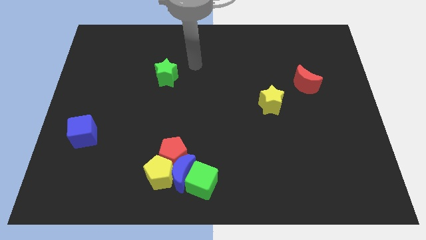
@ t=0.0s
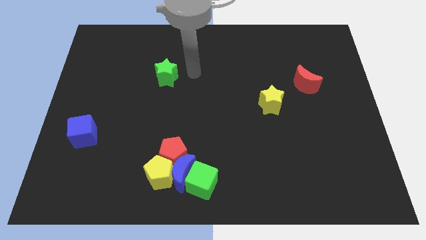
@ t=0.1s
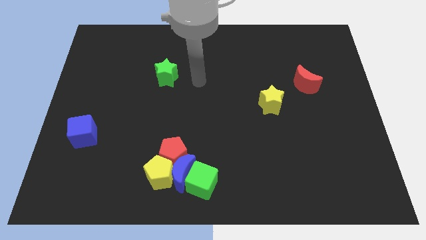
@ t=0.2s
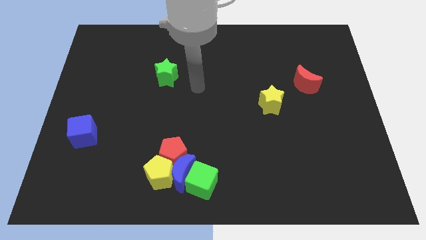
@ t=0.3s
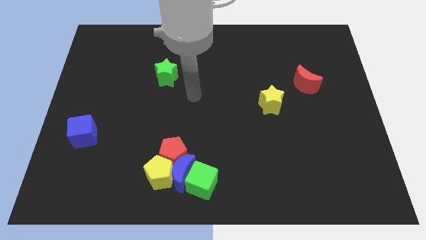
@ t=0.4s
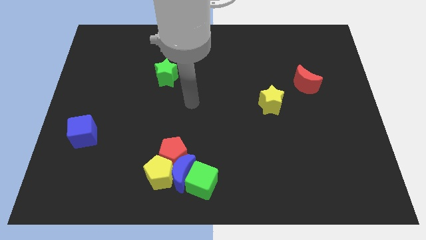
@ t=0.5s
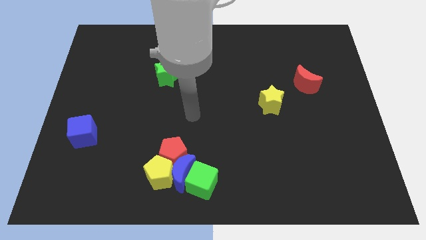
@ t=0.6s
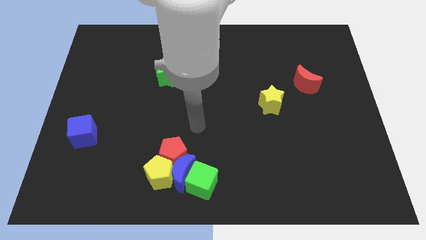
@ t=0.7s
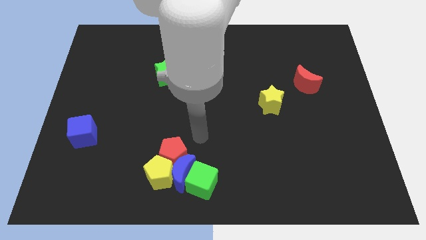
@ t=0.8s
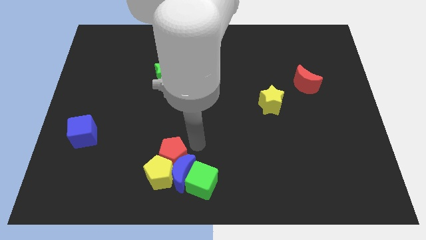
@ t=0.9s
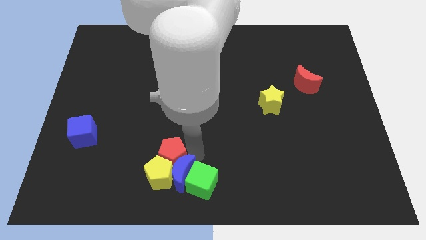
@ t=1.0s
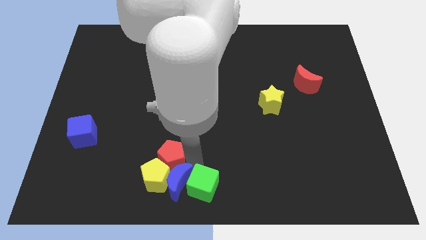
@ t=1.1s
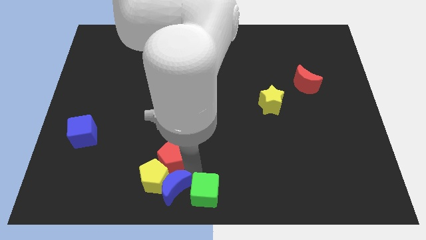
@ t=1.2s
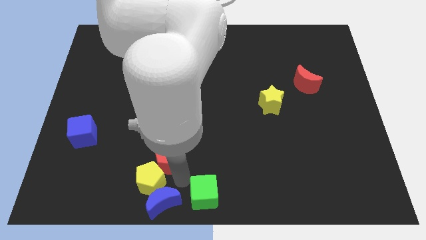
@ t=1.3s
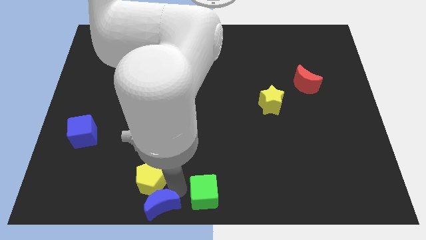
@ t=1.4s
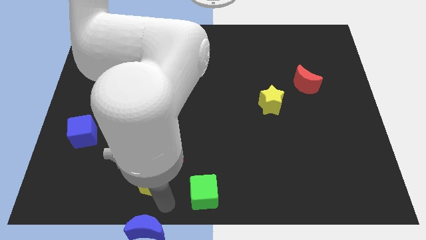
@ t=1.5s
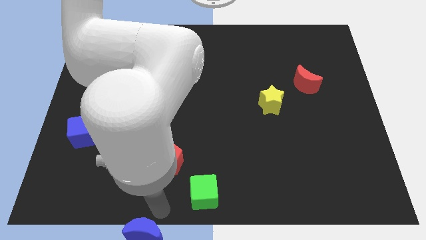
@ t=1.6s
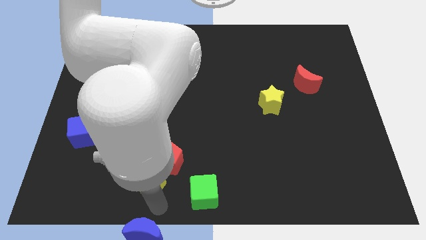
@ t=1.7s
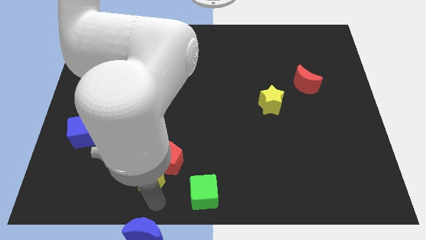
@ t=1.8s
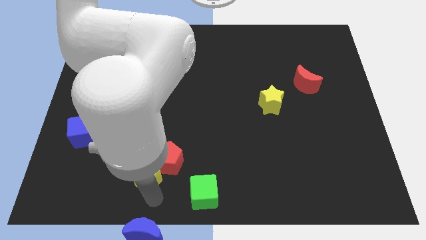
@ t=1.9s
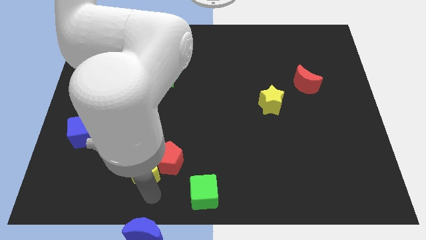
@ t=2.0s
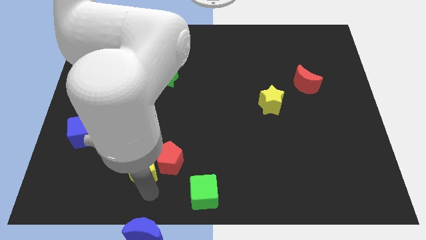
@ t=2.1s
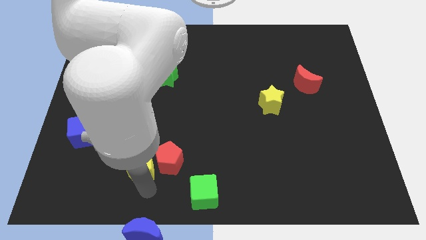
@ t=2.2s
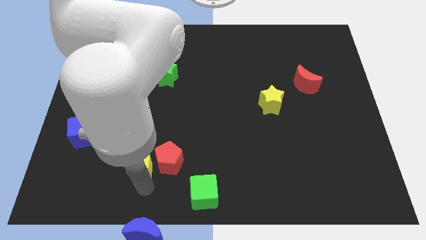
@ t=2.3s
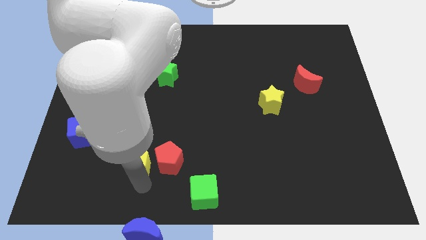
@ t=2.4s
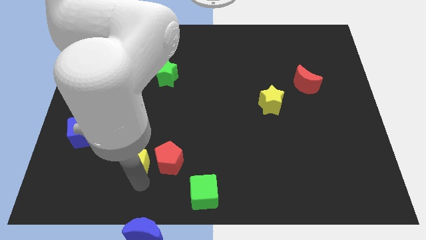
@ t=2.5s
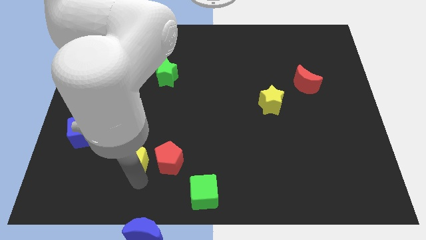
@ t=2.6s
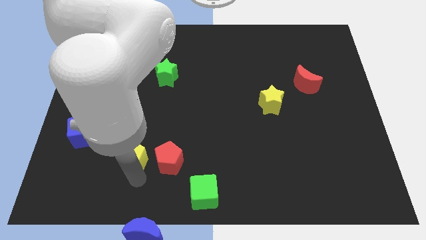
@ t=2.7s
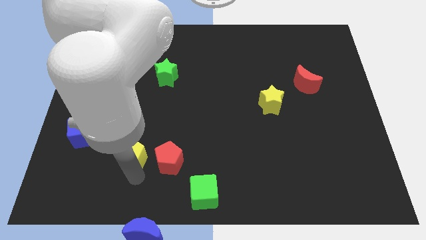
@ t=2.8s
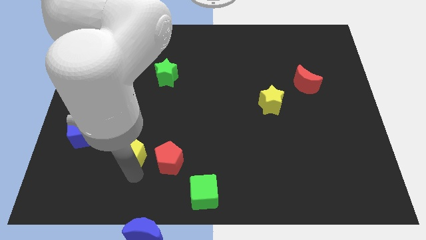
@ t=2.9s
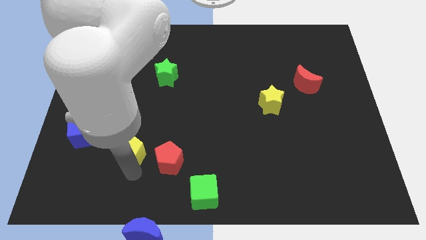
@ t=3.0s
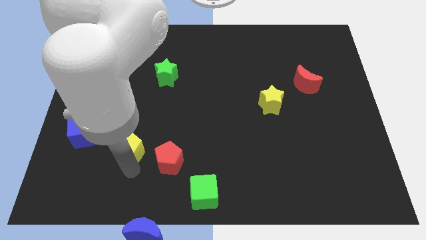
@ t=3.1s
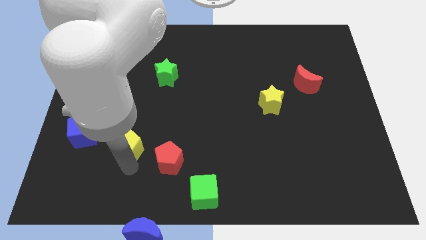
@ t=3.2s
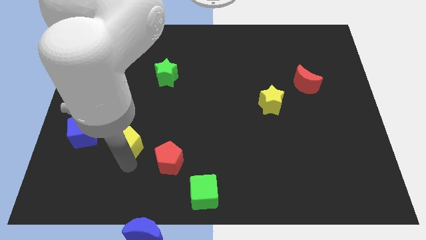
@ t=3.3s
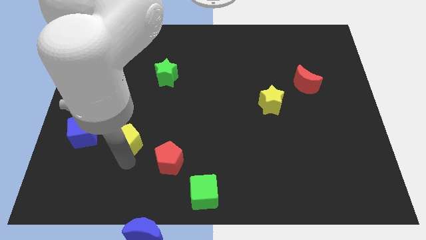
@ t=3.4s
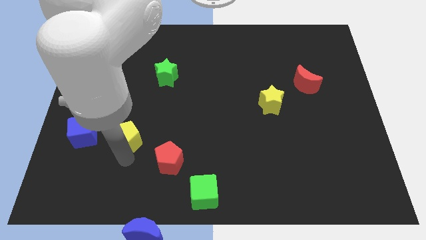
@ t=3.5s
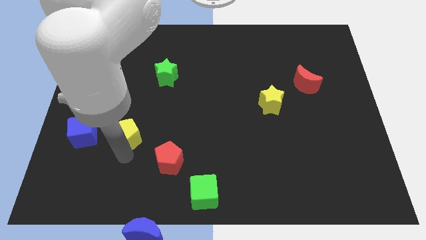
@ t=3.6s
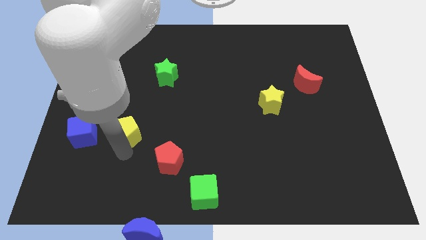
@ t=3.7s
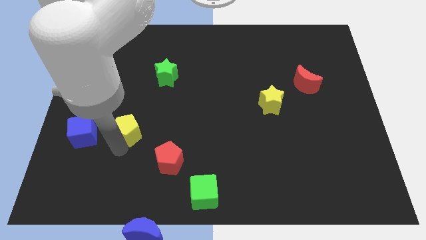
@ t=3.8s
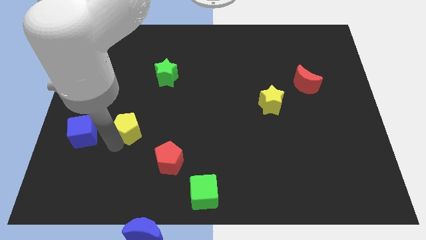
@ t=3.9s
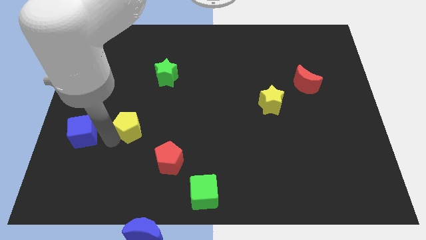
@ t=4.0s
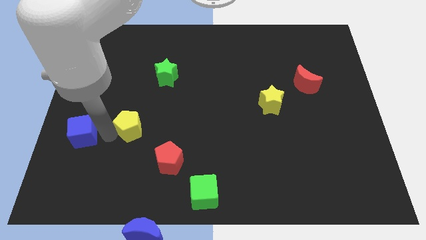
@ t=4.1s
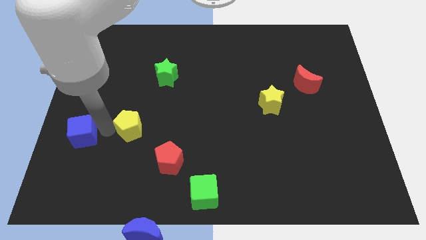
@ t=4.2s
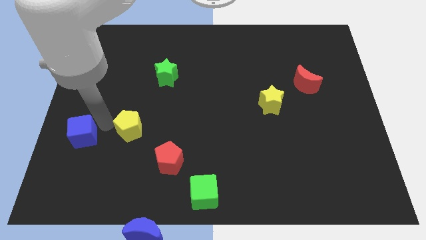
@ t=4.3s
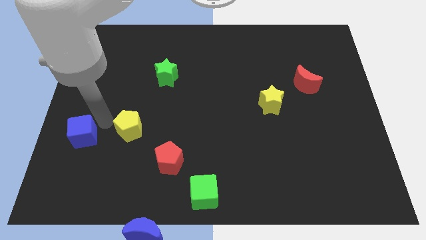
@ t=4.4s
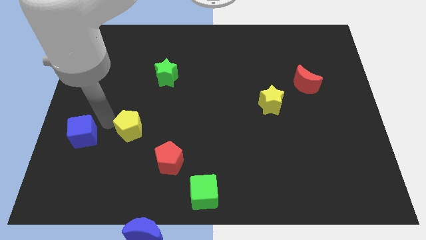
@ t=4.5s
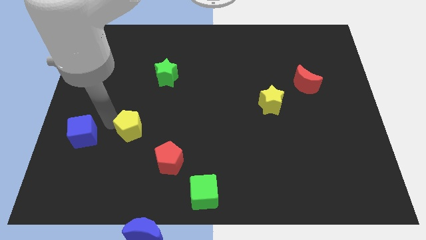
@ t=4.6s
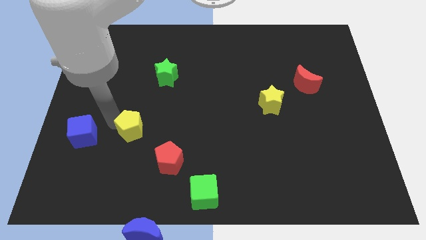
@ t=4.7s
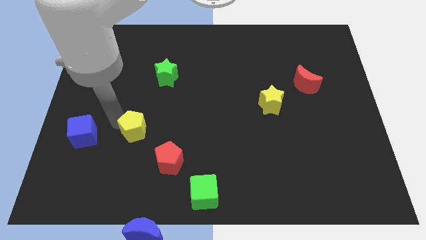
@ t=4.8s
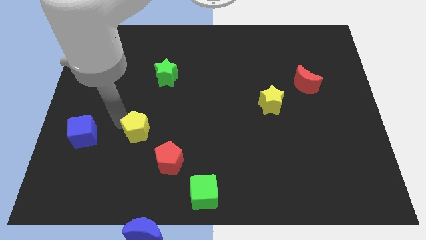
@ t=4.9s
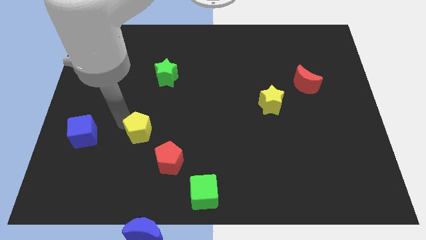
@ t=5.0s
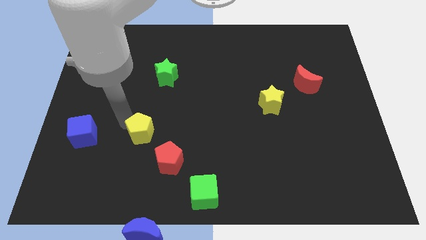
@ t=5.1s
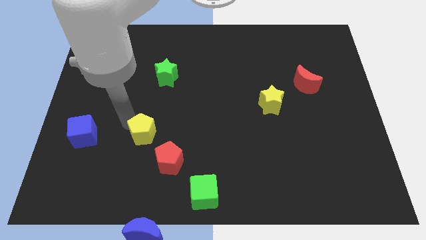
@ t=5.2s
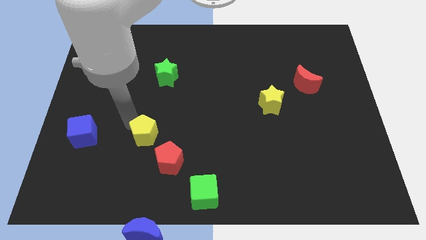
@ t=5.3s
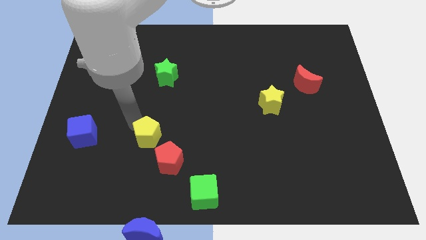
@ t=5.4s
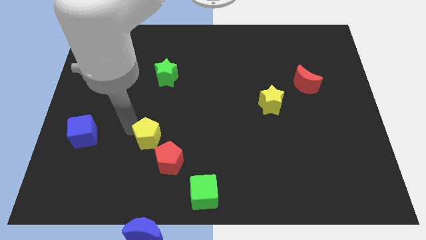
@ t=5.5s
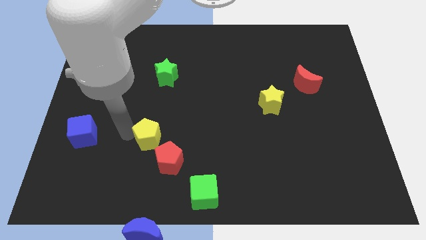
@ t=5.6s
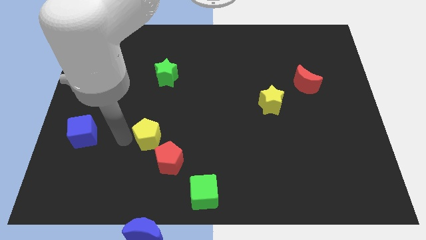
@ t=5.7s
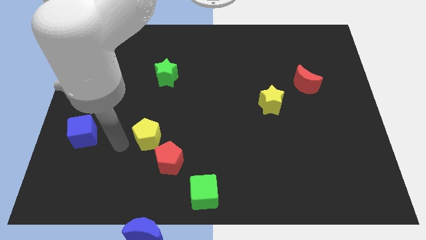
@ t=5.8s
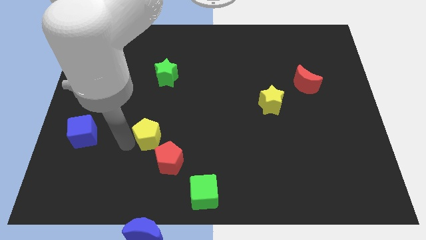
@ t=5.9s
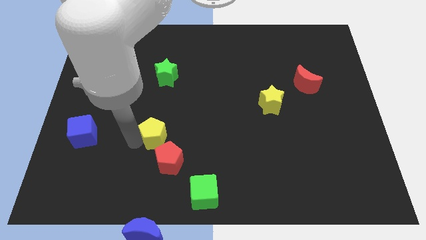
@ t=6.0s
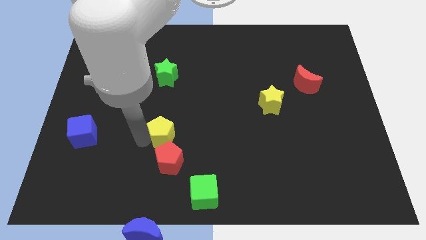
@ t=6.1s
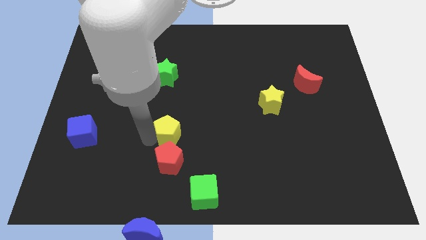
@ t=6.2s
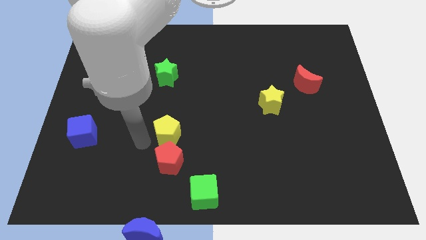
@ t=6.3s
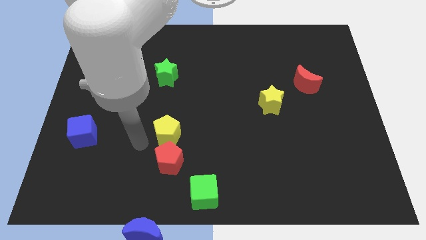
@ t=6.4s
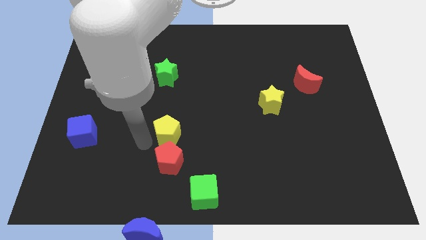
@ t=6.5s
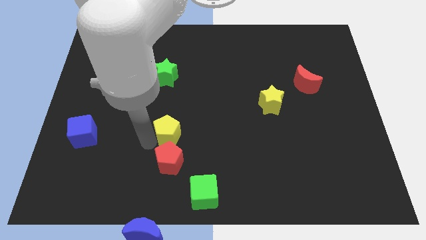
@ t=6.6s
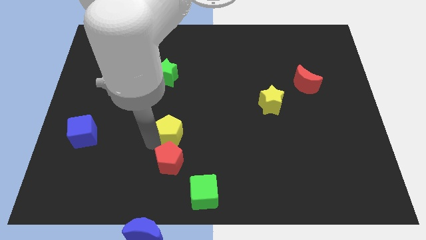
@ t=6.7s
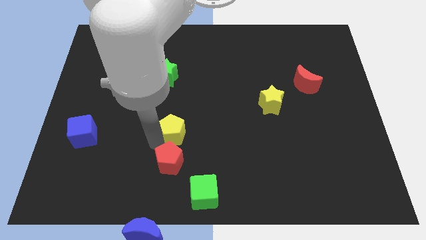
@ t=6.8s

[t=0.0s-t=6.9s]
push the yellow pentagon up and right diagonally a little bit

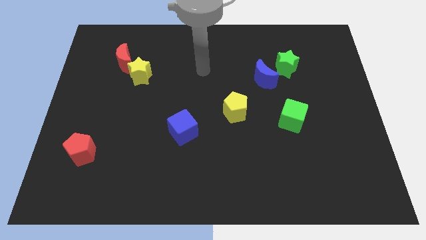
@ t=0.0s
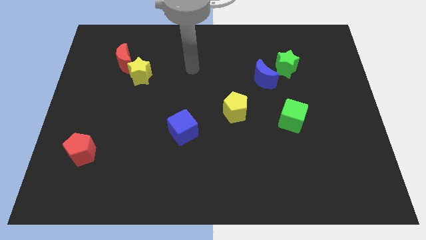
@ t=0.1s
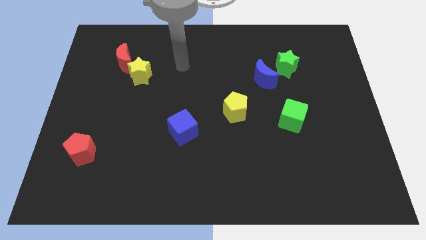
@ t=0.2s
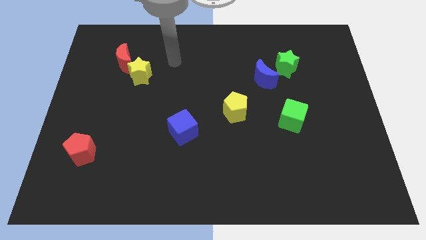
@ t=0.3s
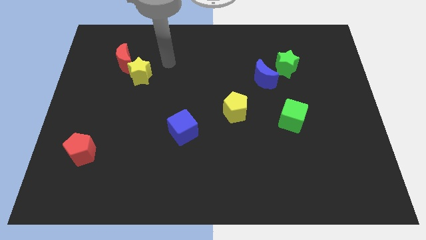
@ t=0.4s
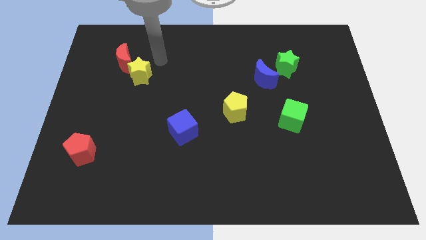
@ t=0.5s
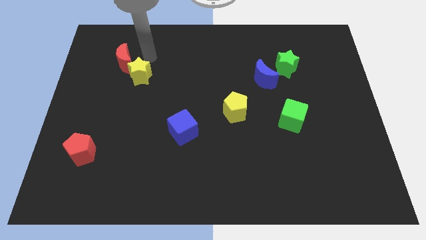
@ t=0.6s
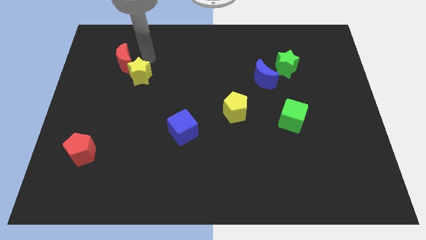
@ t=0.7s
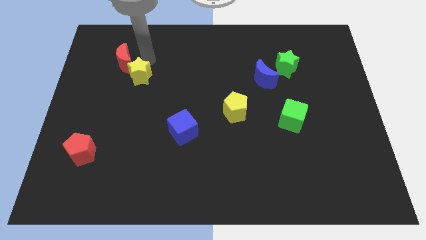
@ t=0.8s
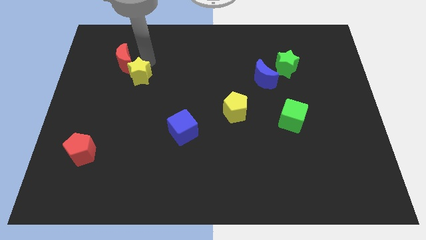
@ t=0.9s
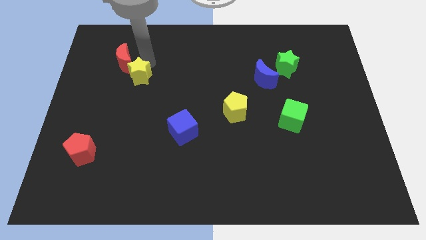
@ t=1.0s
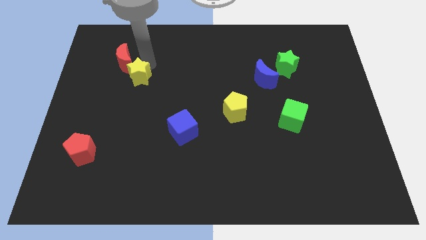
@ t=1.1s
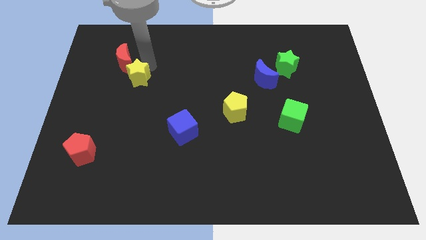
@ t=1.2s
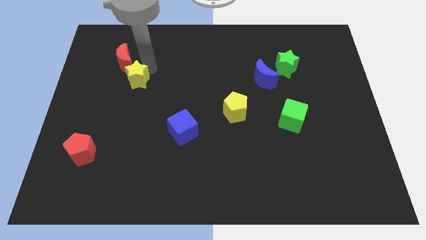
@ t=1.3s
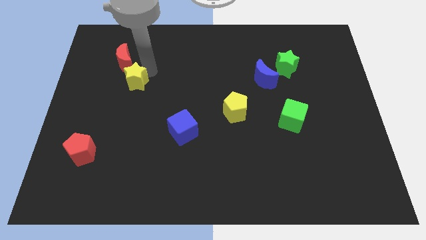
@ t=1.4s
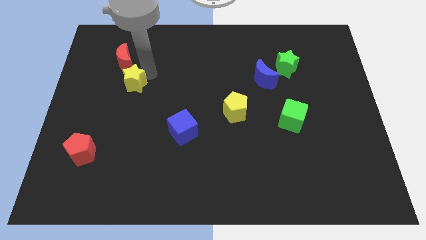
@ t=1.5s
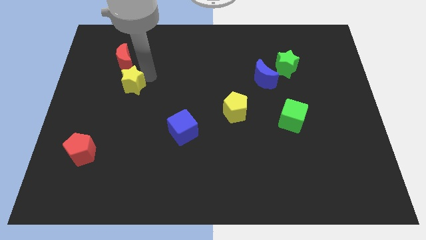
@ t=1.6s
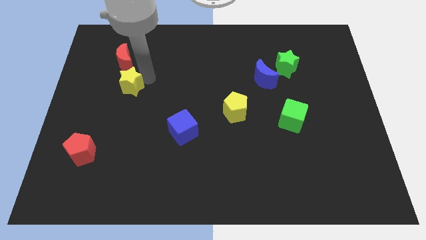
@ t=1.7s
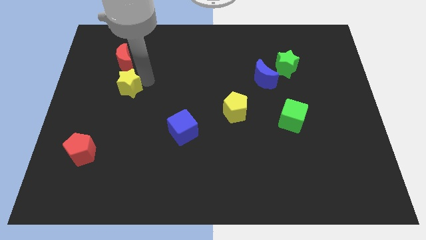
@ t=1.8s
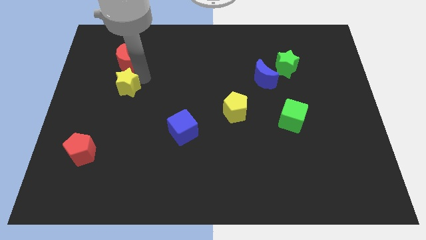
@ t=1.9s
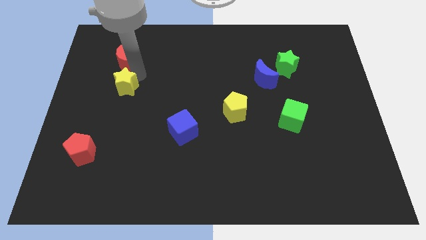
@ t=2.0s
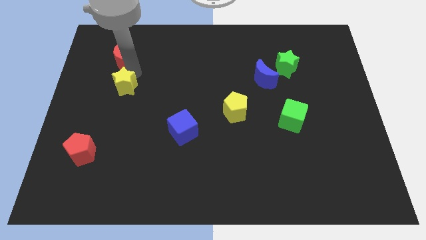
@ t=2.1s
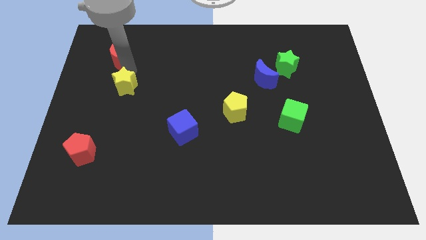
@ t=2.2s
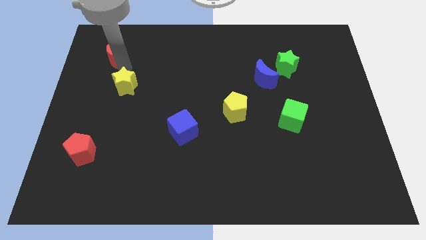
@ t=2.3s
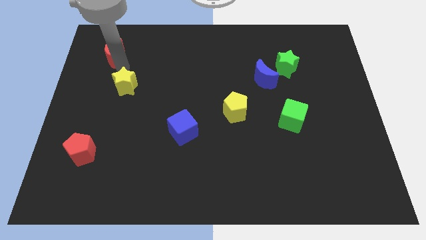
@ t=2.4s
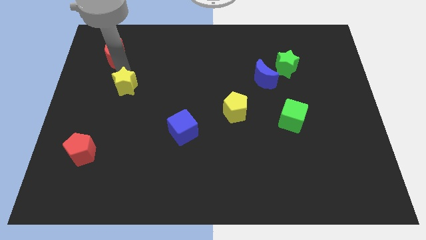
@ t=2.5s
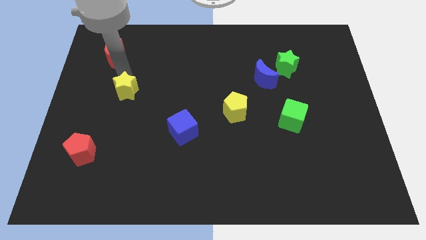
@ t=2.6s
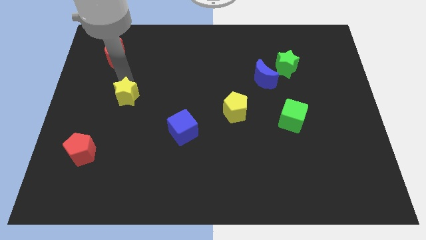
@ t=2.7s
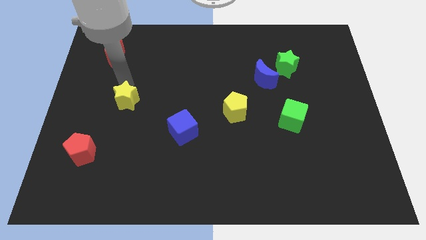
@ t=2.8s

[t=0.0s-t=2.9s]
slide the yellow star a little downwards
